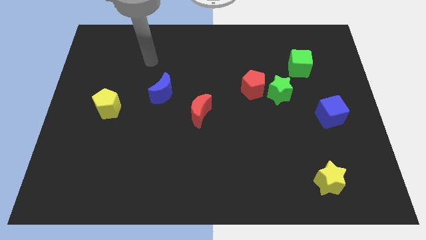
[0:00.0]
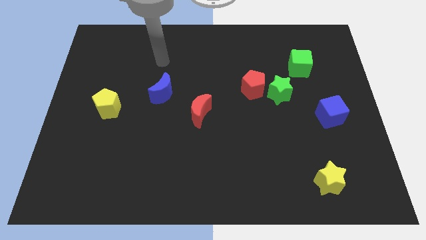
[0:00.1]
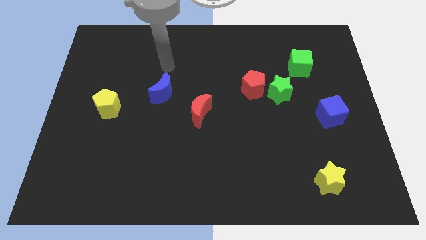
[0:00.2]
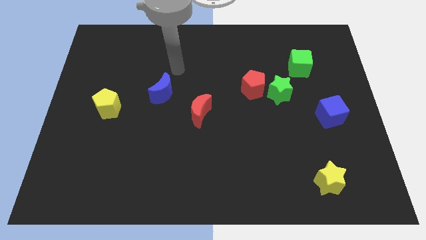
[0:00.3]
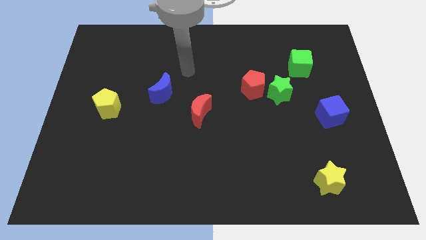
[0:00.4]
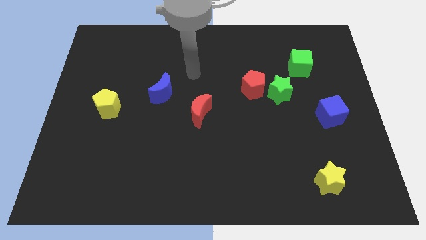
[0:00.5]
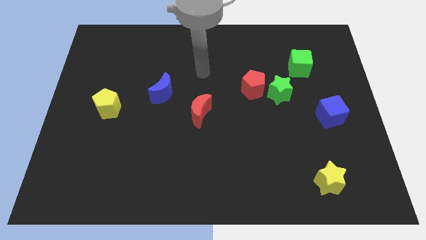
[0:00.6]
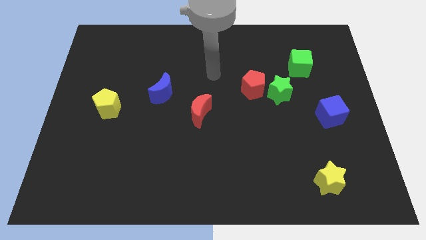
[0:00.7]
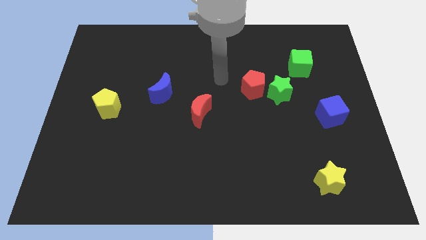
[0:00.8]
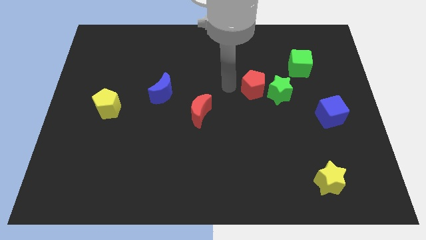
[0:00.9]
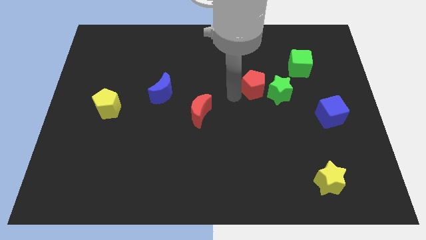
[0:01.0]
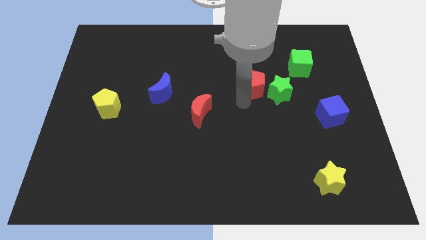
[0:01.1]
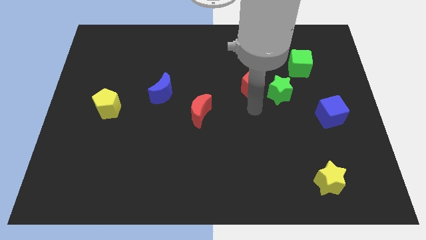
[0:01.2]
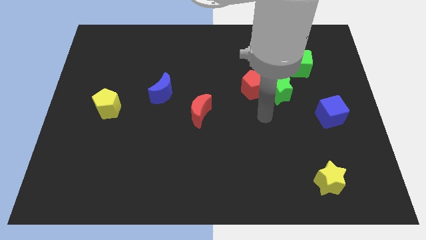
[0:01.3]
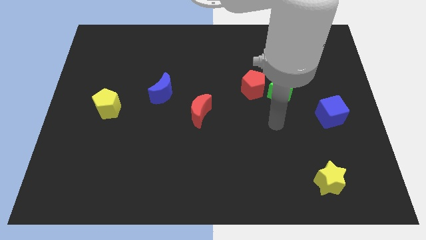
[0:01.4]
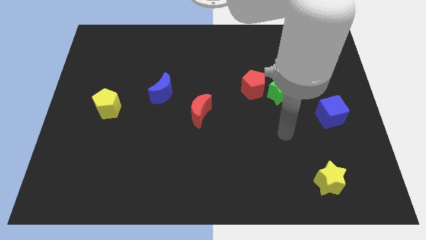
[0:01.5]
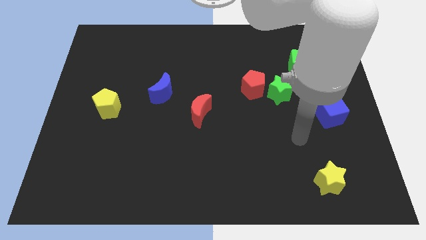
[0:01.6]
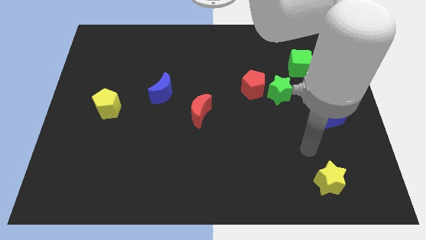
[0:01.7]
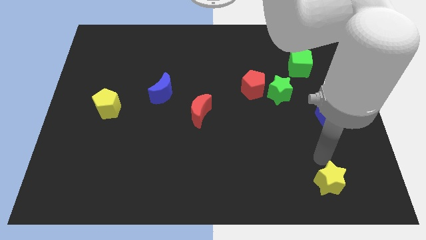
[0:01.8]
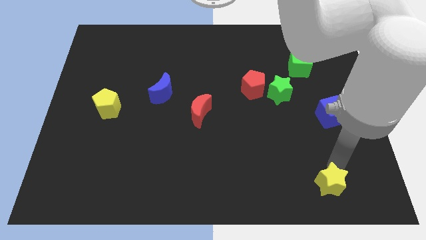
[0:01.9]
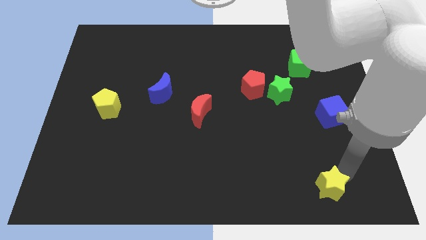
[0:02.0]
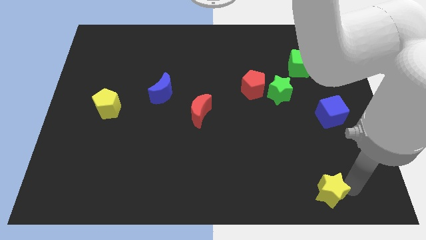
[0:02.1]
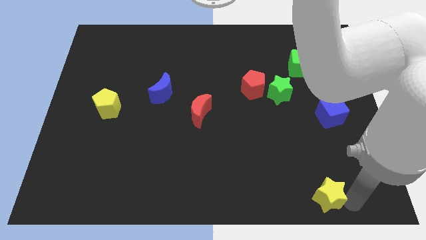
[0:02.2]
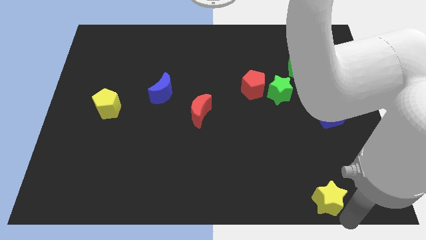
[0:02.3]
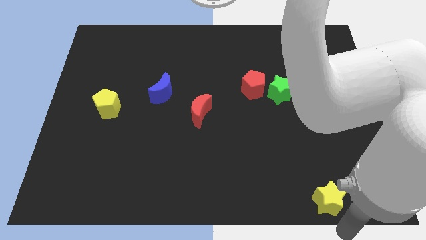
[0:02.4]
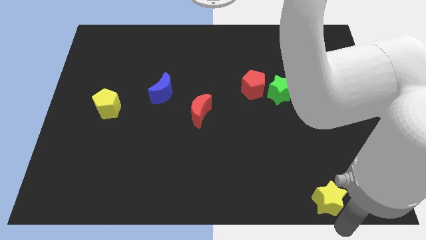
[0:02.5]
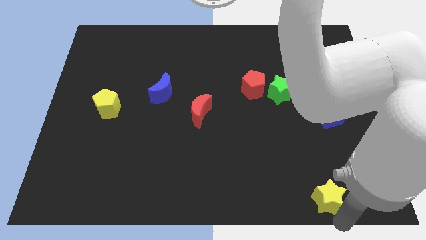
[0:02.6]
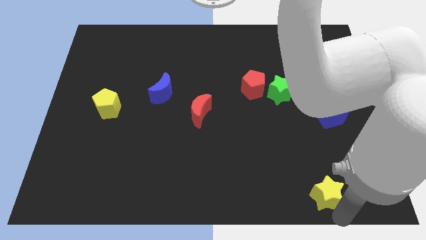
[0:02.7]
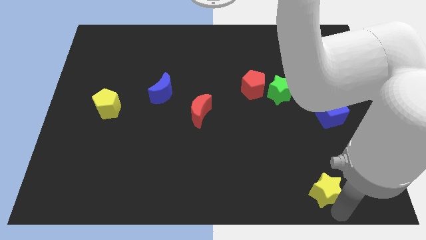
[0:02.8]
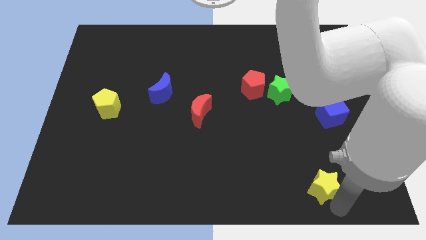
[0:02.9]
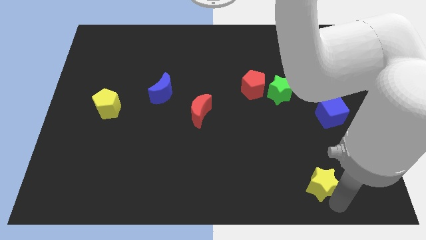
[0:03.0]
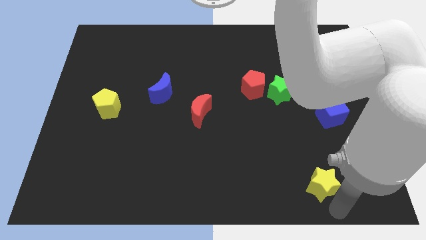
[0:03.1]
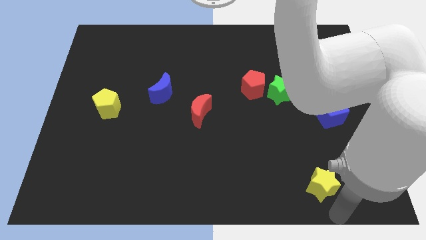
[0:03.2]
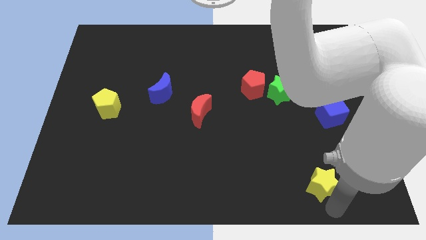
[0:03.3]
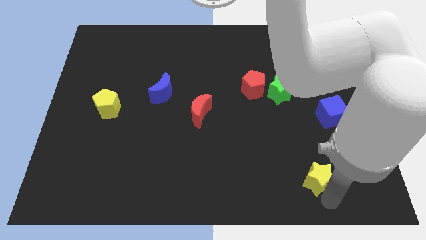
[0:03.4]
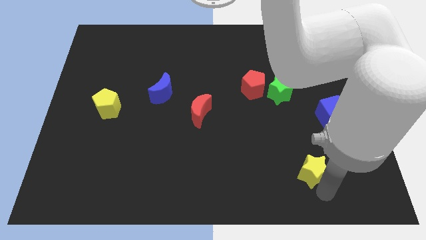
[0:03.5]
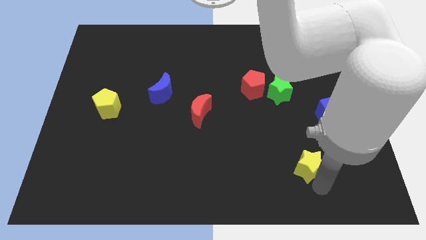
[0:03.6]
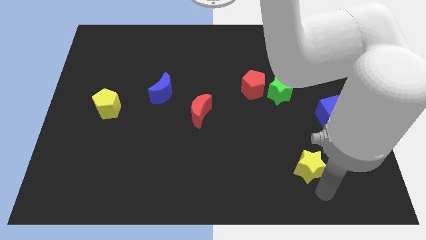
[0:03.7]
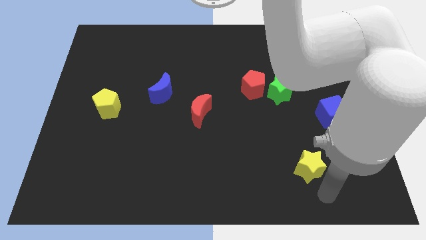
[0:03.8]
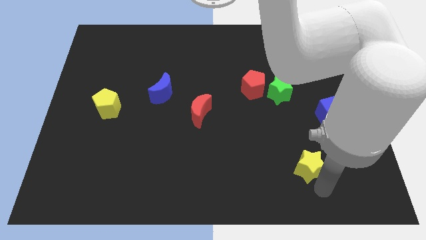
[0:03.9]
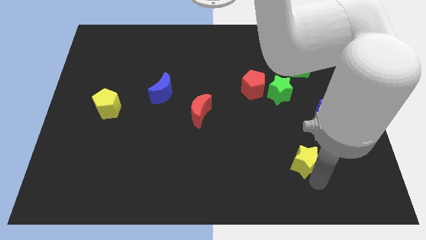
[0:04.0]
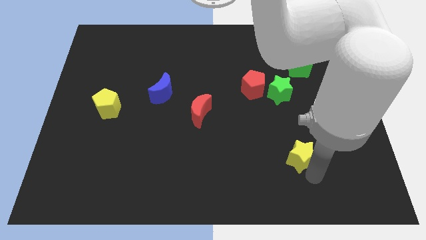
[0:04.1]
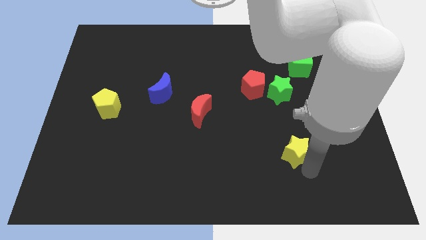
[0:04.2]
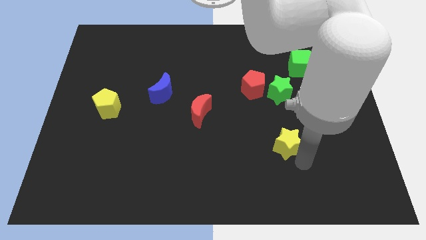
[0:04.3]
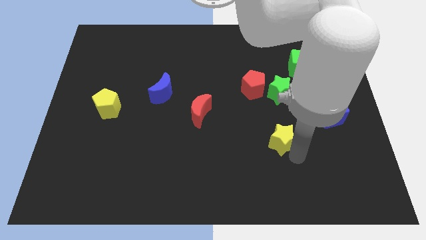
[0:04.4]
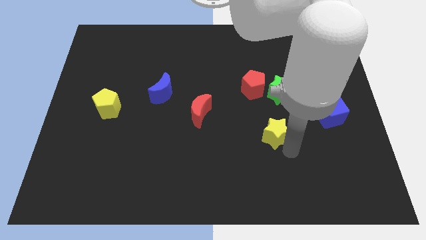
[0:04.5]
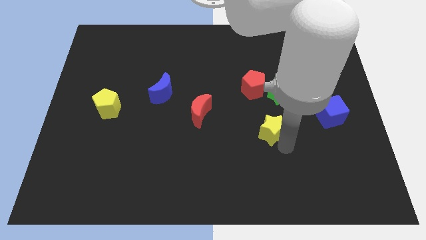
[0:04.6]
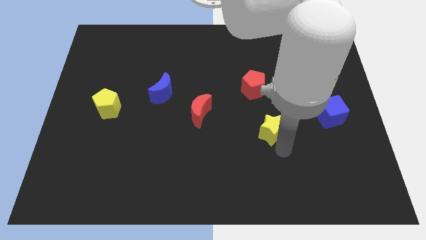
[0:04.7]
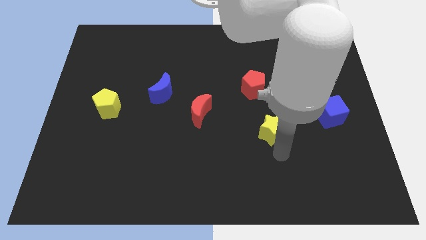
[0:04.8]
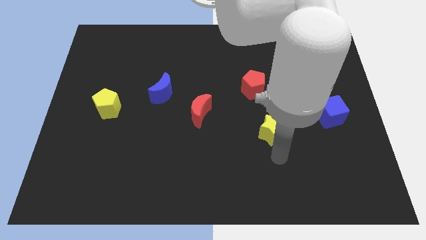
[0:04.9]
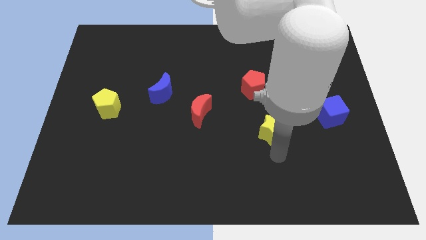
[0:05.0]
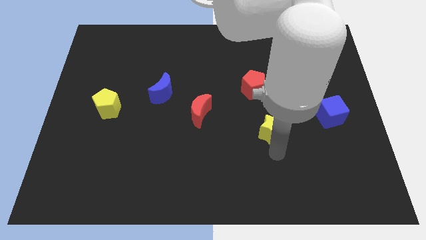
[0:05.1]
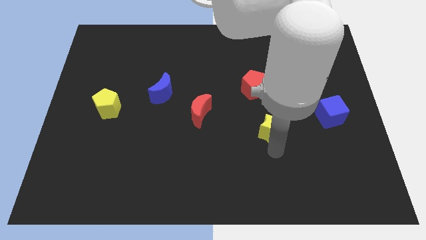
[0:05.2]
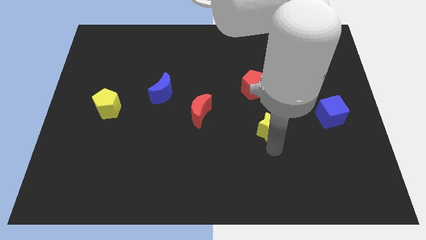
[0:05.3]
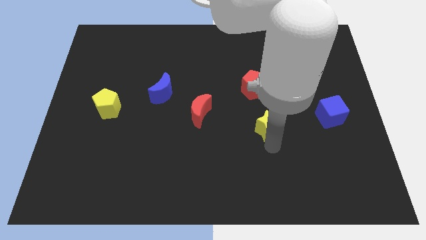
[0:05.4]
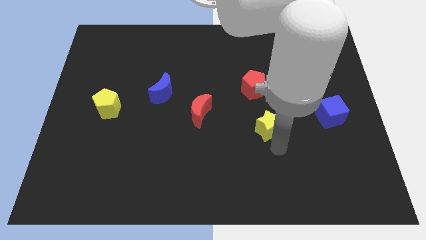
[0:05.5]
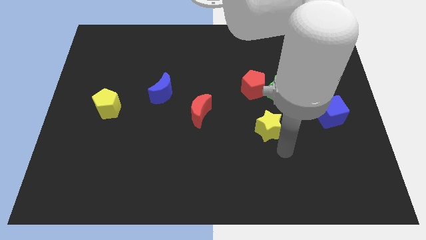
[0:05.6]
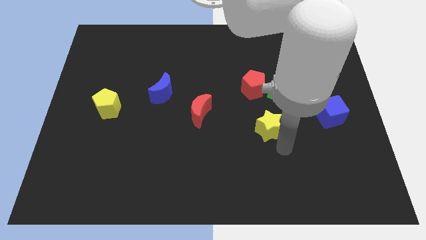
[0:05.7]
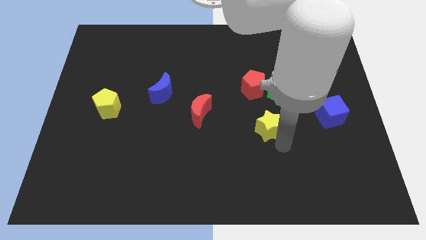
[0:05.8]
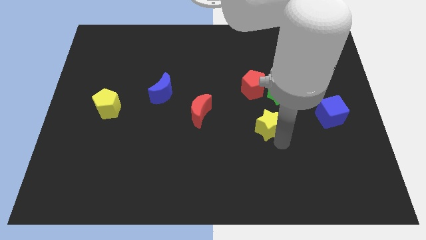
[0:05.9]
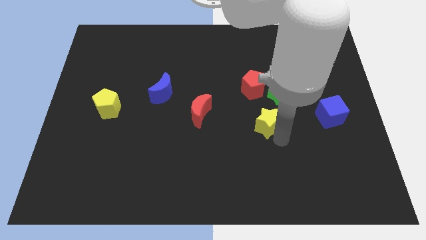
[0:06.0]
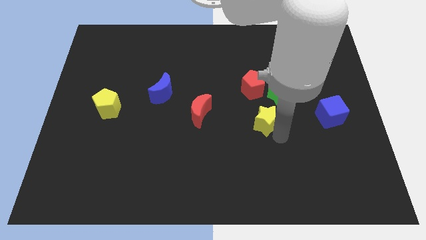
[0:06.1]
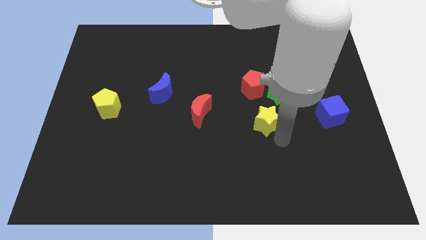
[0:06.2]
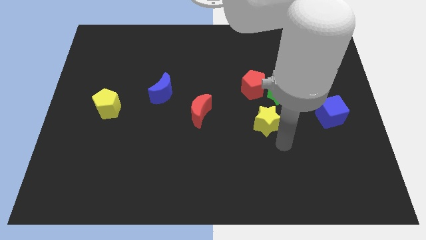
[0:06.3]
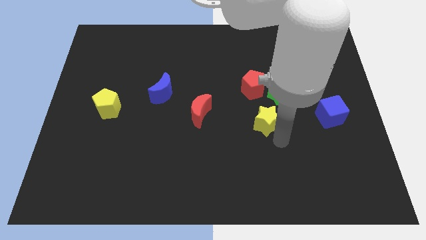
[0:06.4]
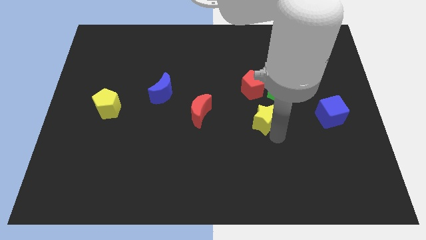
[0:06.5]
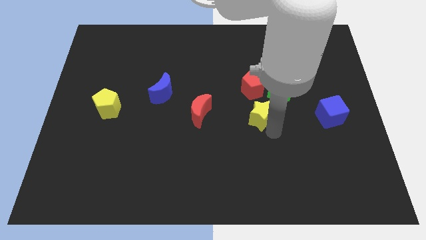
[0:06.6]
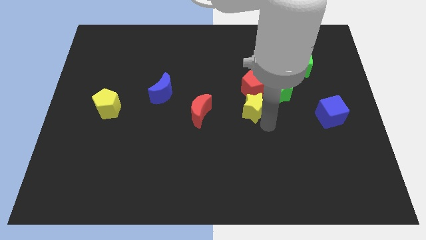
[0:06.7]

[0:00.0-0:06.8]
push the yellow star left of the green star

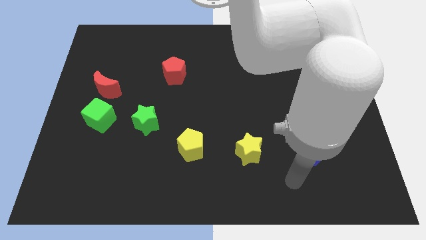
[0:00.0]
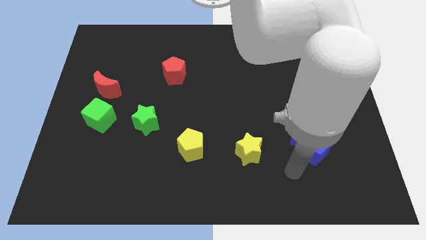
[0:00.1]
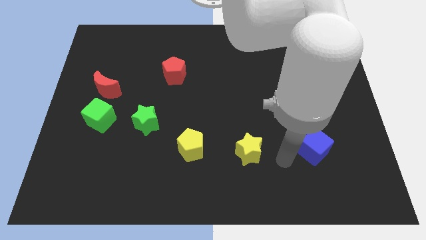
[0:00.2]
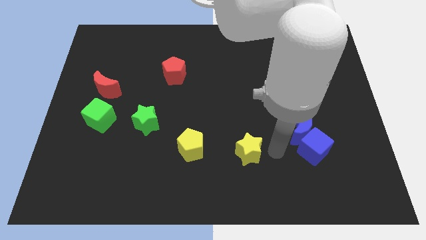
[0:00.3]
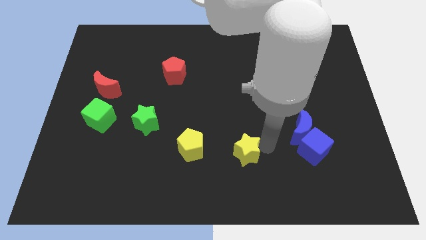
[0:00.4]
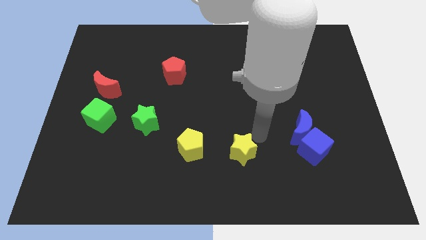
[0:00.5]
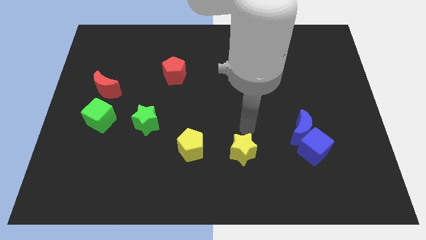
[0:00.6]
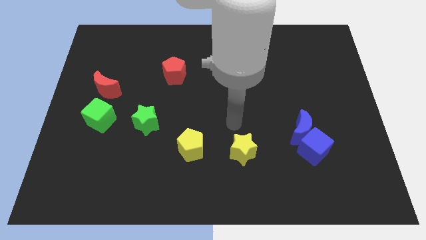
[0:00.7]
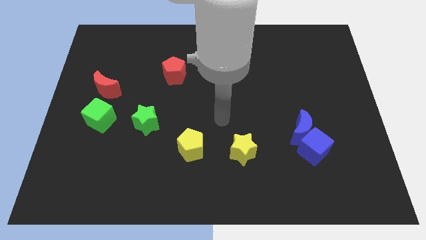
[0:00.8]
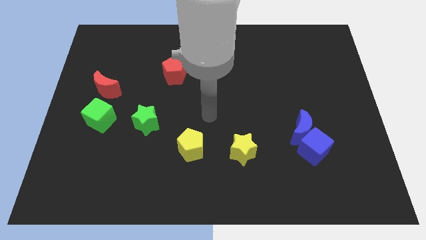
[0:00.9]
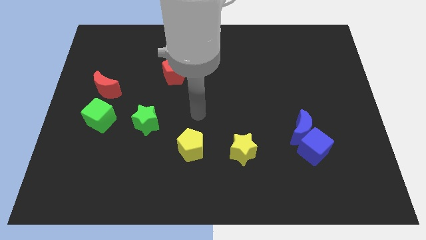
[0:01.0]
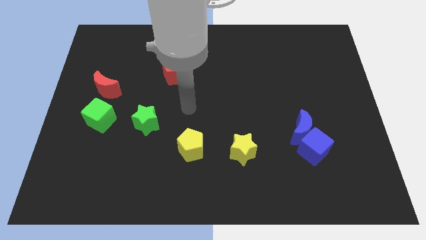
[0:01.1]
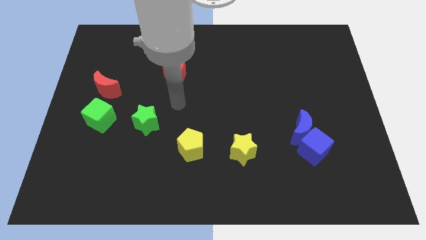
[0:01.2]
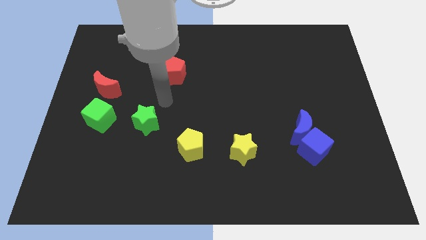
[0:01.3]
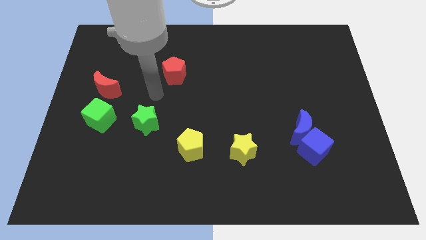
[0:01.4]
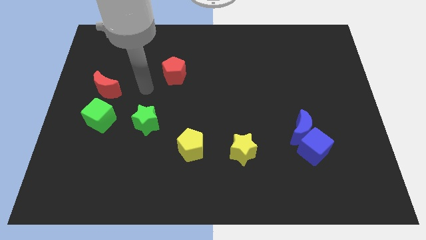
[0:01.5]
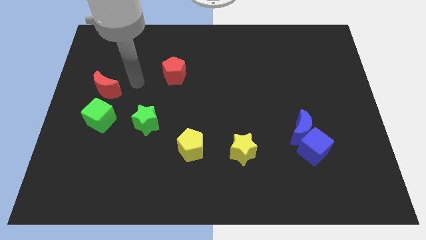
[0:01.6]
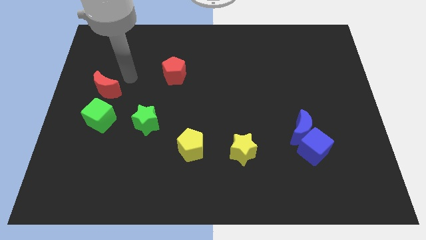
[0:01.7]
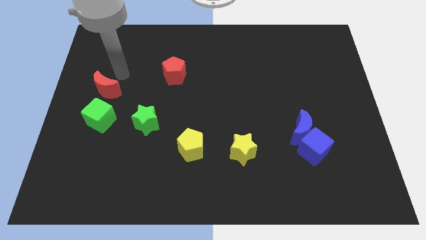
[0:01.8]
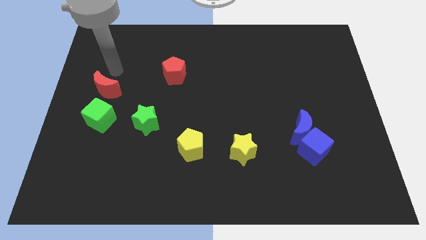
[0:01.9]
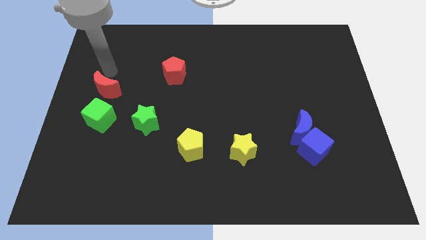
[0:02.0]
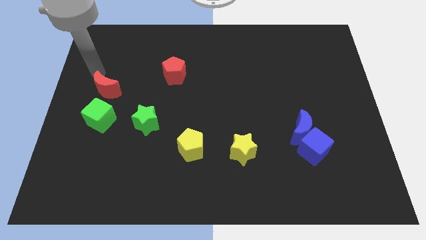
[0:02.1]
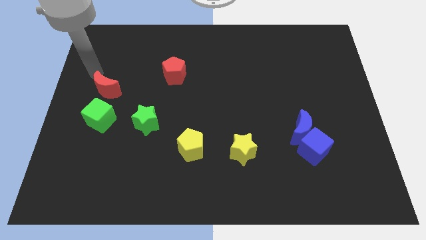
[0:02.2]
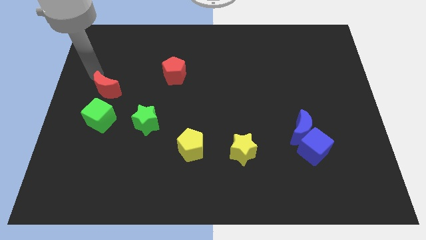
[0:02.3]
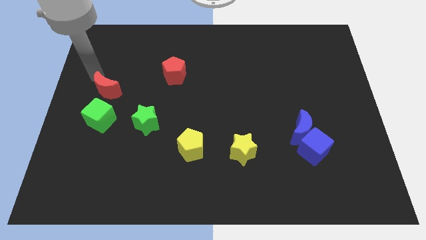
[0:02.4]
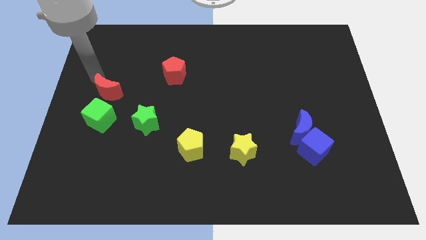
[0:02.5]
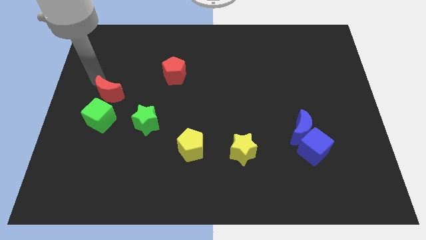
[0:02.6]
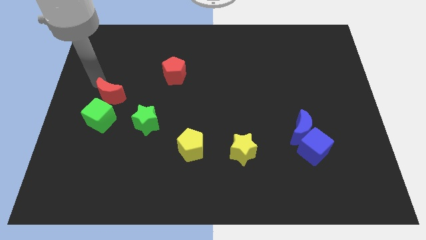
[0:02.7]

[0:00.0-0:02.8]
slide the red moon to the top left of the green star
